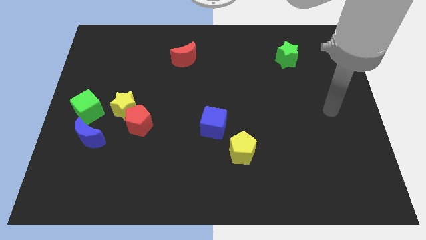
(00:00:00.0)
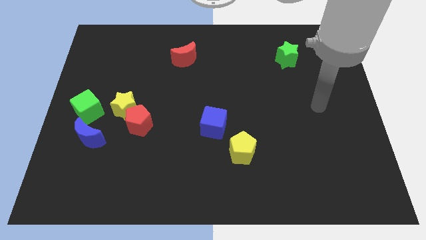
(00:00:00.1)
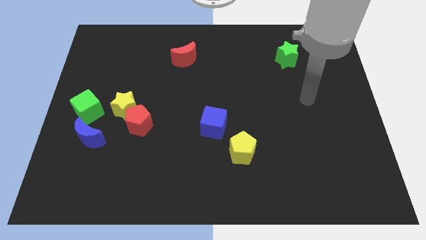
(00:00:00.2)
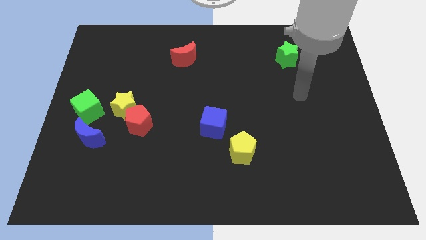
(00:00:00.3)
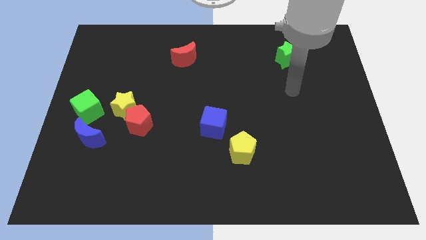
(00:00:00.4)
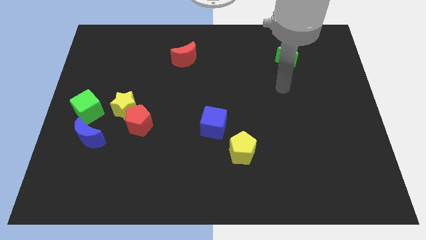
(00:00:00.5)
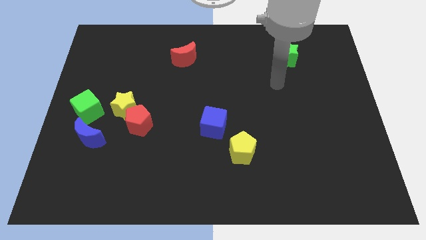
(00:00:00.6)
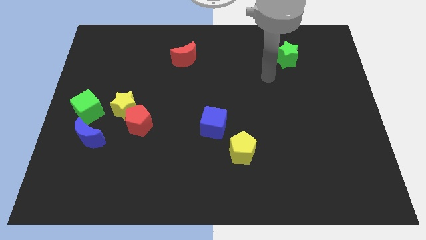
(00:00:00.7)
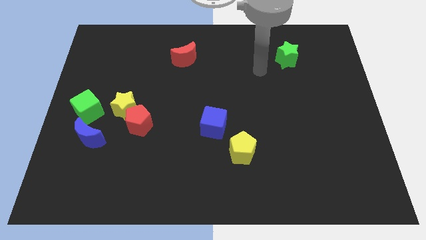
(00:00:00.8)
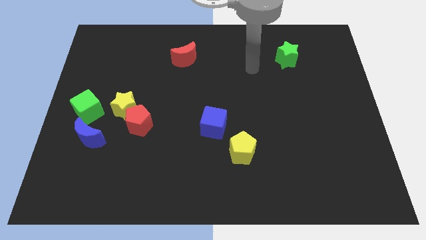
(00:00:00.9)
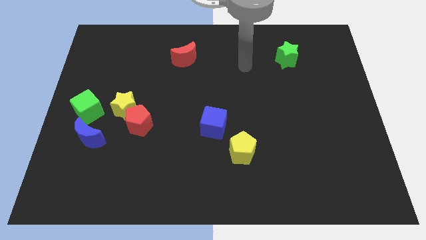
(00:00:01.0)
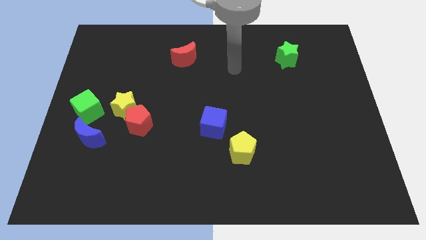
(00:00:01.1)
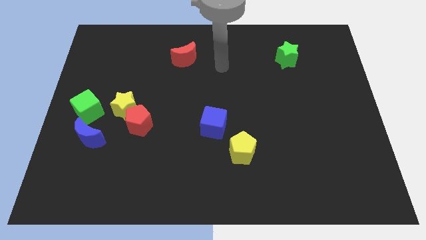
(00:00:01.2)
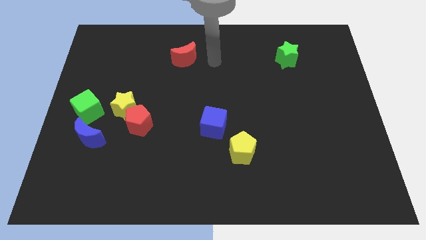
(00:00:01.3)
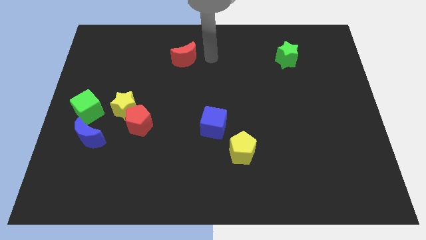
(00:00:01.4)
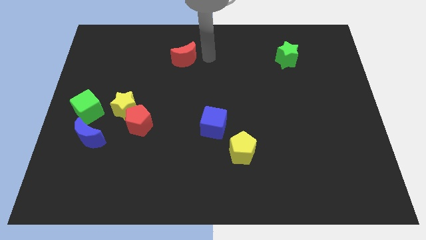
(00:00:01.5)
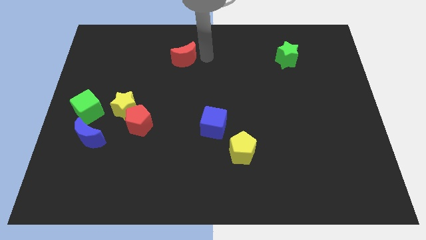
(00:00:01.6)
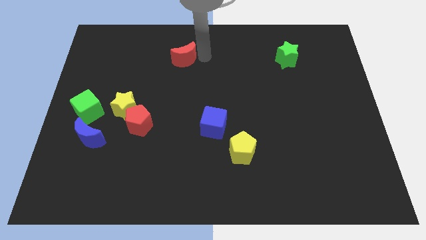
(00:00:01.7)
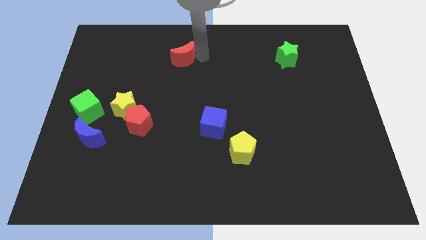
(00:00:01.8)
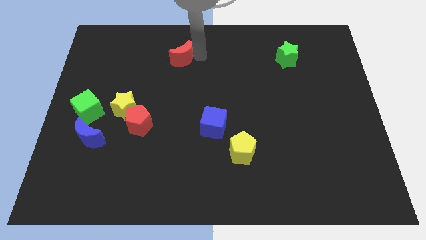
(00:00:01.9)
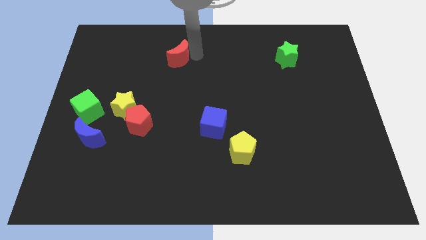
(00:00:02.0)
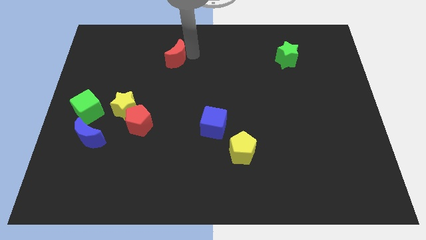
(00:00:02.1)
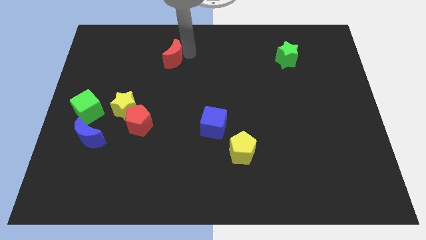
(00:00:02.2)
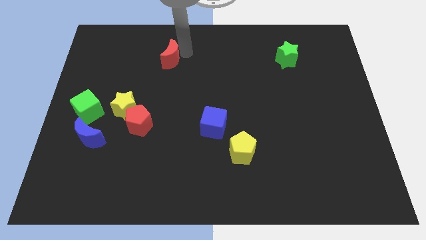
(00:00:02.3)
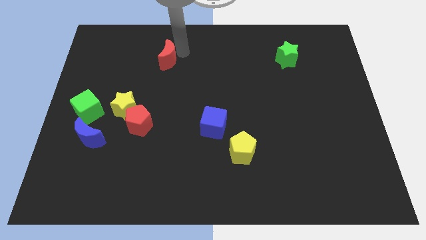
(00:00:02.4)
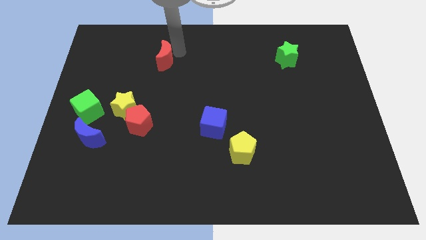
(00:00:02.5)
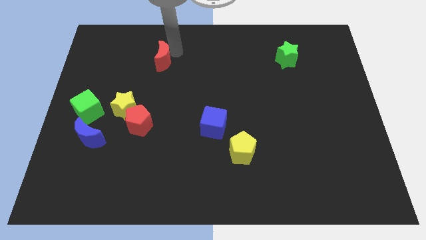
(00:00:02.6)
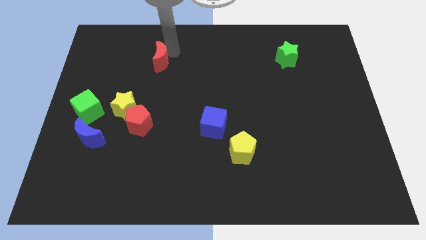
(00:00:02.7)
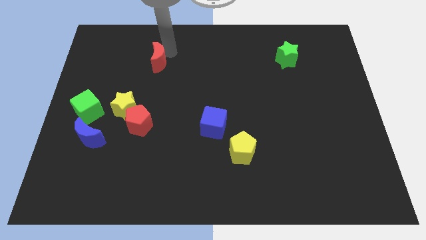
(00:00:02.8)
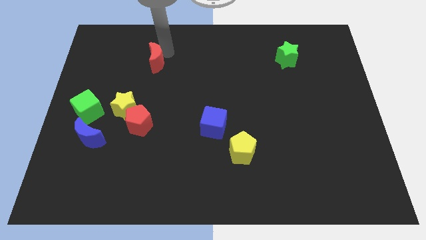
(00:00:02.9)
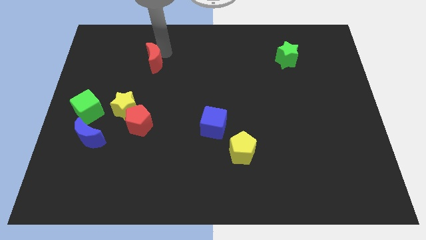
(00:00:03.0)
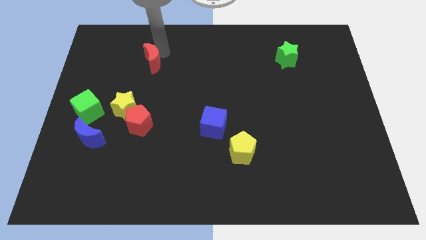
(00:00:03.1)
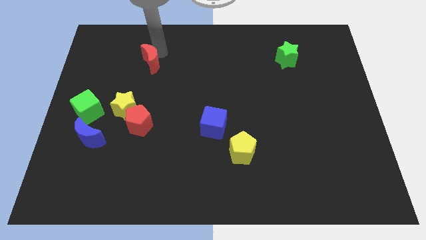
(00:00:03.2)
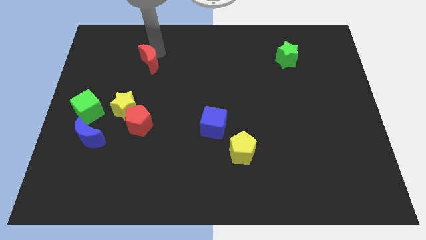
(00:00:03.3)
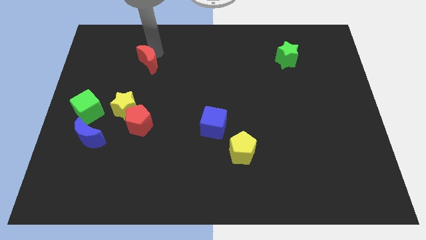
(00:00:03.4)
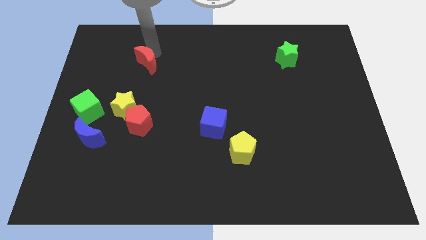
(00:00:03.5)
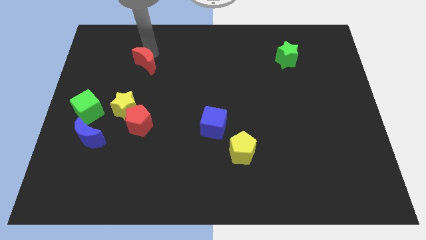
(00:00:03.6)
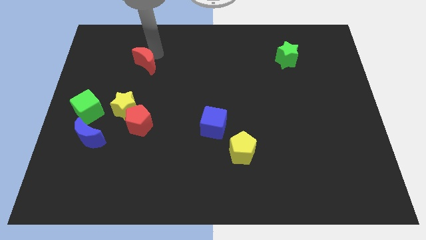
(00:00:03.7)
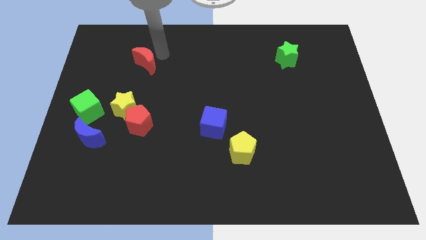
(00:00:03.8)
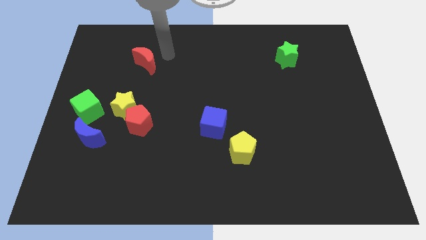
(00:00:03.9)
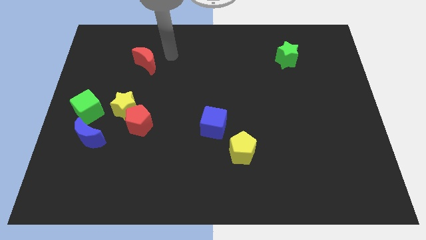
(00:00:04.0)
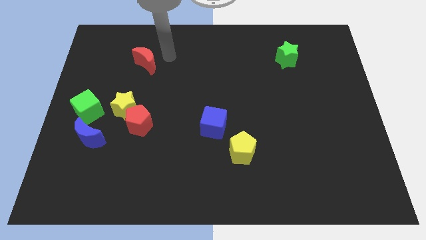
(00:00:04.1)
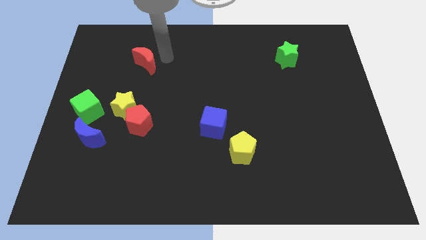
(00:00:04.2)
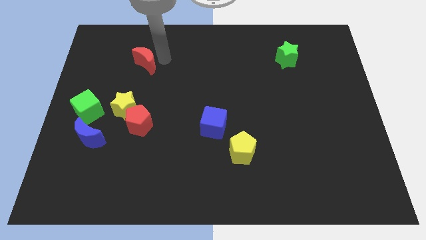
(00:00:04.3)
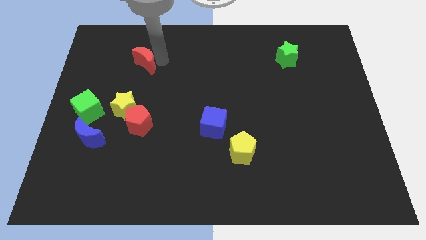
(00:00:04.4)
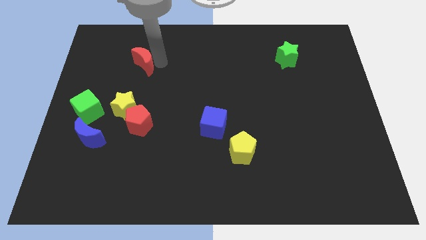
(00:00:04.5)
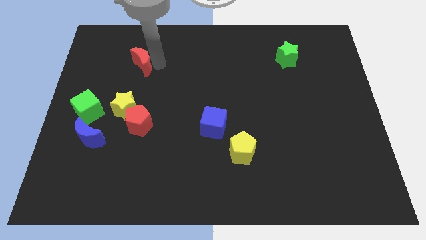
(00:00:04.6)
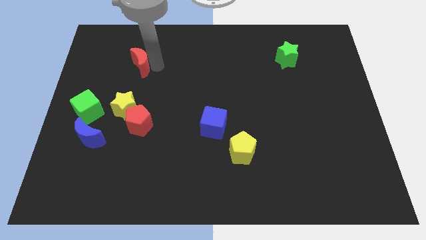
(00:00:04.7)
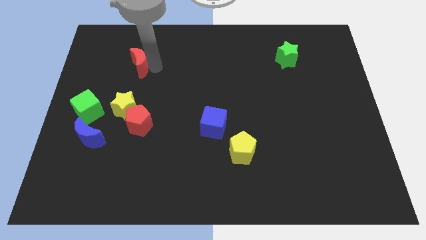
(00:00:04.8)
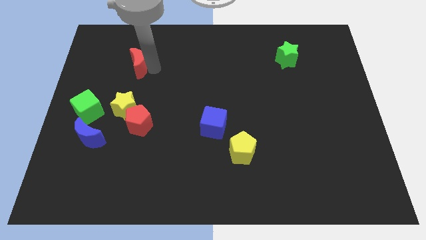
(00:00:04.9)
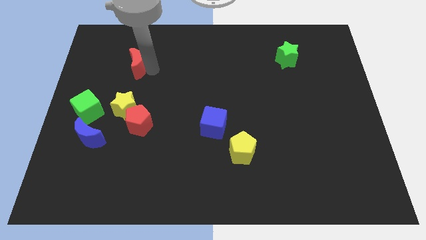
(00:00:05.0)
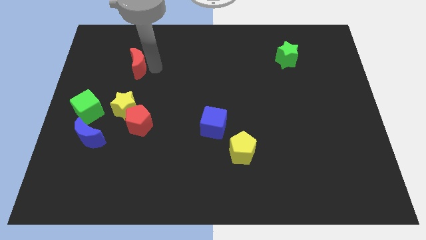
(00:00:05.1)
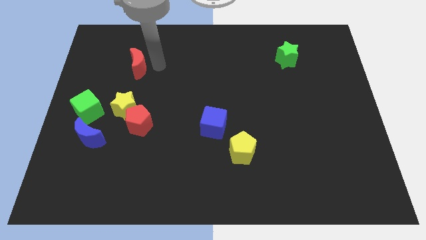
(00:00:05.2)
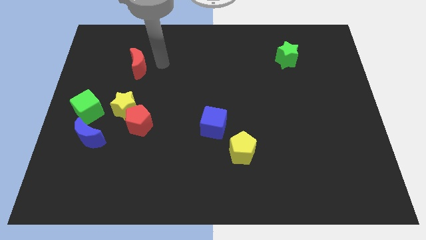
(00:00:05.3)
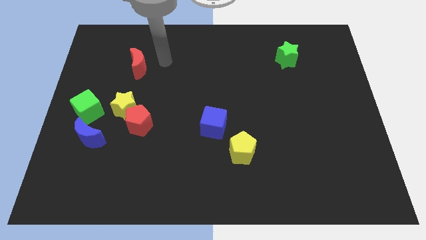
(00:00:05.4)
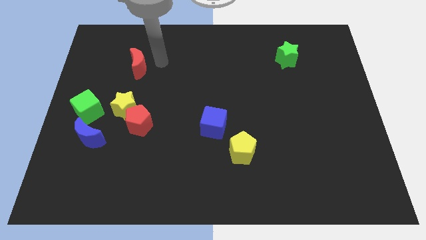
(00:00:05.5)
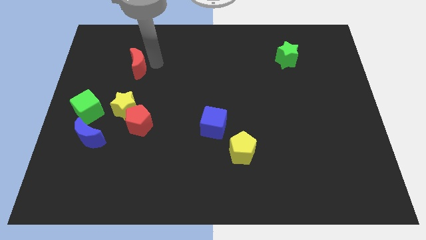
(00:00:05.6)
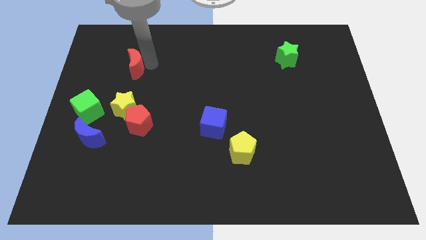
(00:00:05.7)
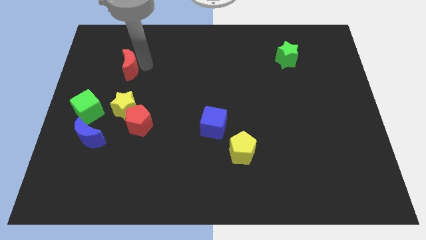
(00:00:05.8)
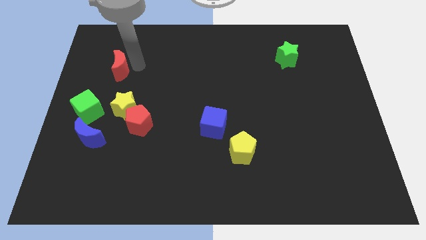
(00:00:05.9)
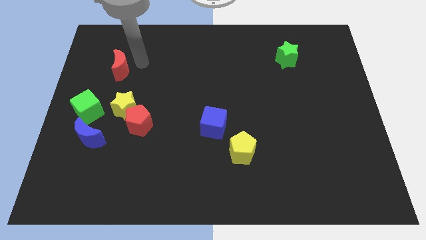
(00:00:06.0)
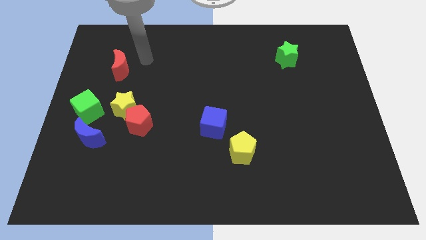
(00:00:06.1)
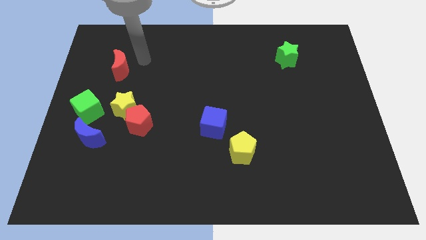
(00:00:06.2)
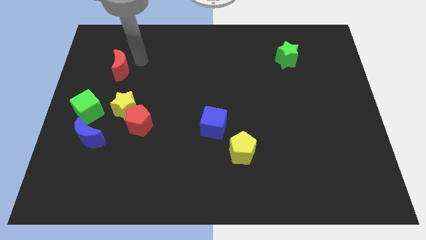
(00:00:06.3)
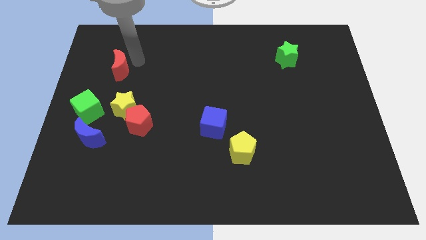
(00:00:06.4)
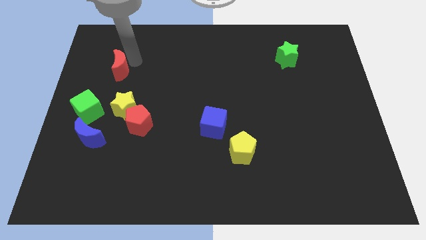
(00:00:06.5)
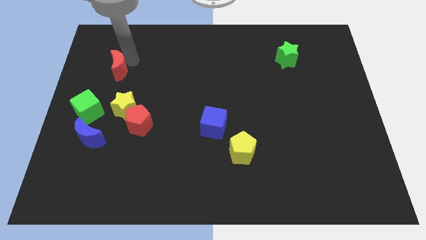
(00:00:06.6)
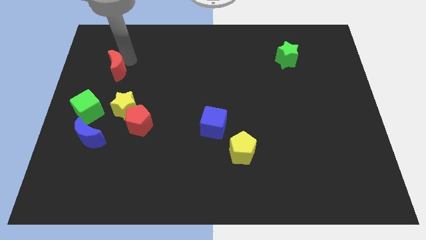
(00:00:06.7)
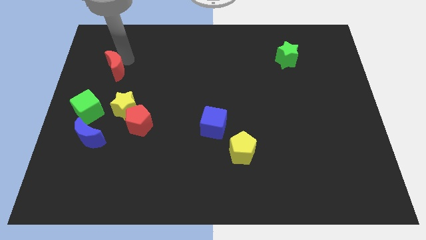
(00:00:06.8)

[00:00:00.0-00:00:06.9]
slide the red moon above the green cube

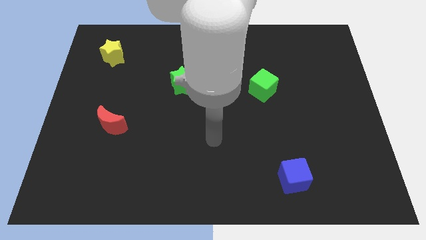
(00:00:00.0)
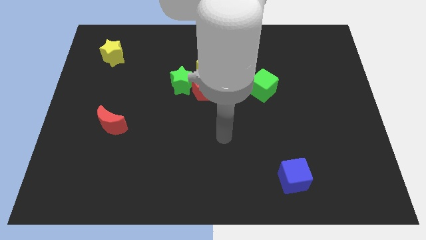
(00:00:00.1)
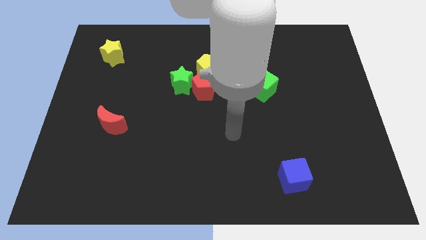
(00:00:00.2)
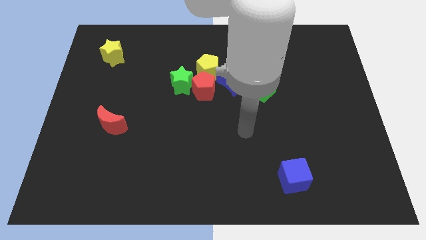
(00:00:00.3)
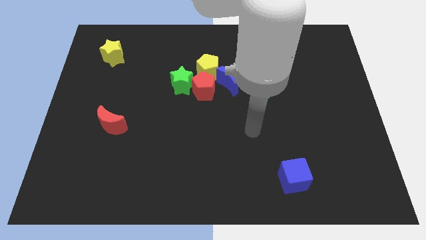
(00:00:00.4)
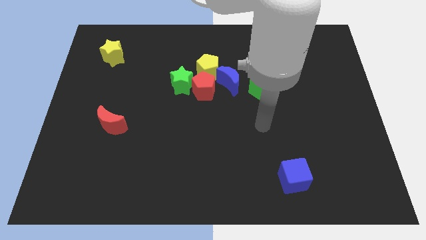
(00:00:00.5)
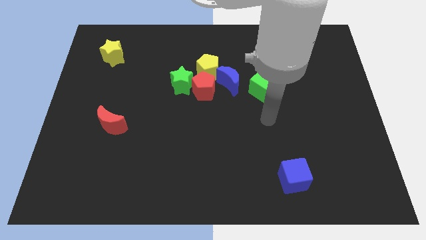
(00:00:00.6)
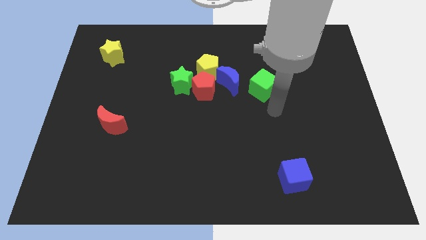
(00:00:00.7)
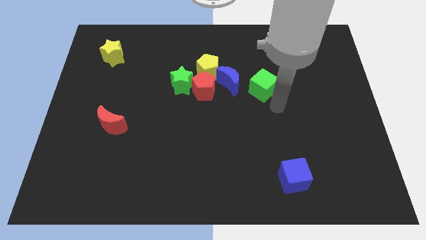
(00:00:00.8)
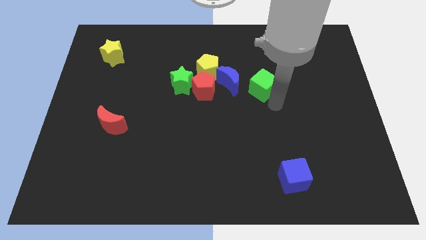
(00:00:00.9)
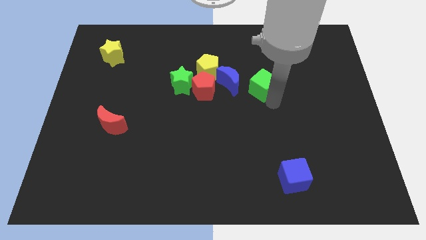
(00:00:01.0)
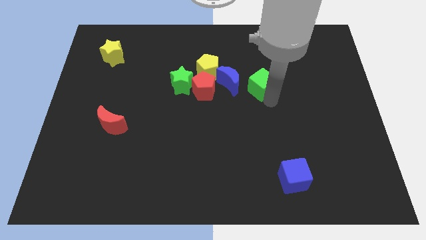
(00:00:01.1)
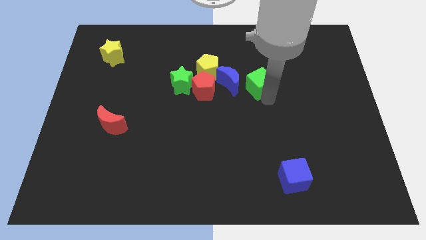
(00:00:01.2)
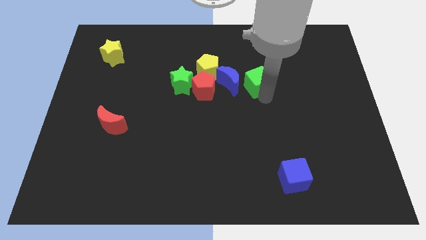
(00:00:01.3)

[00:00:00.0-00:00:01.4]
push the green cube to the right side of the yellow pentagon
